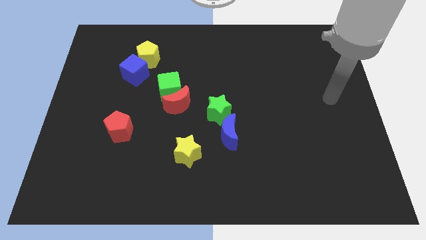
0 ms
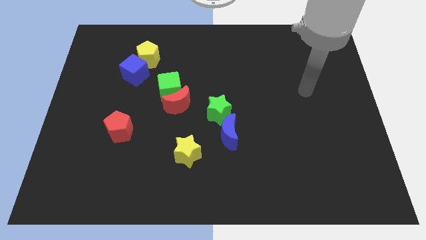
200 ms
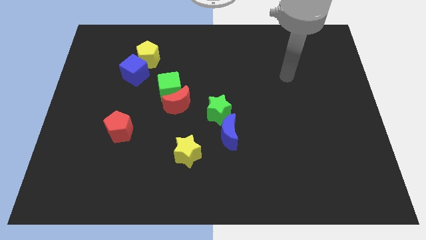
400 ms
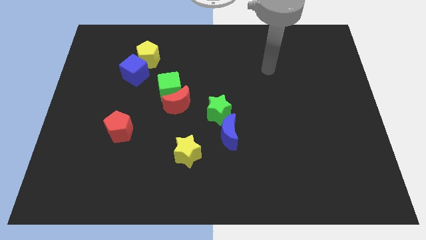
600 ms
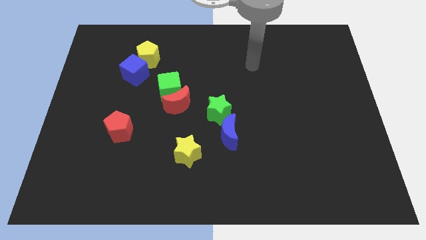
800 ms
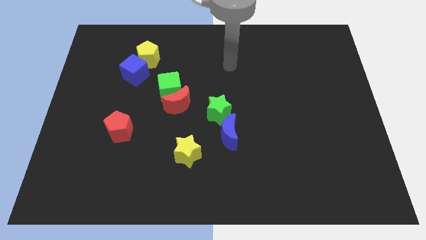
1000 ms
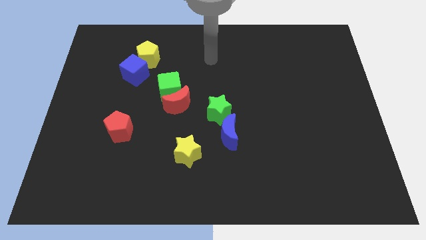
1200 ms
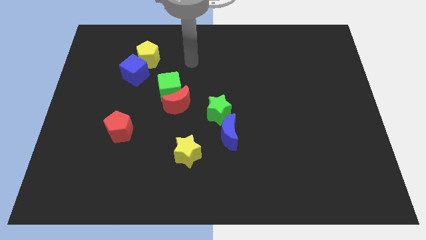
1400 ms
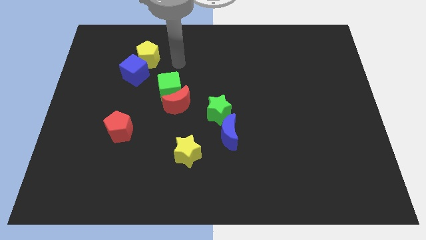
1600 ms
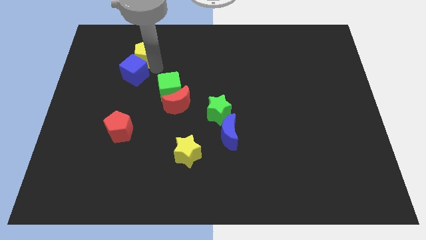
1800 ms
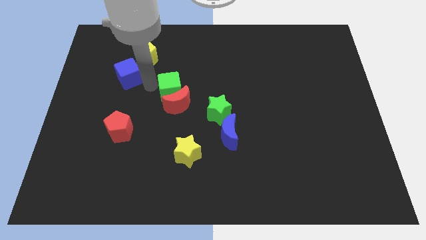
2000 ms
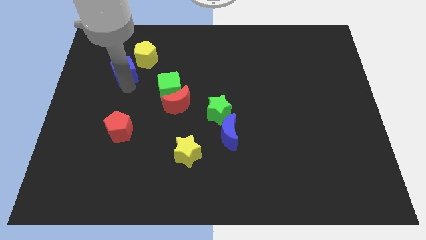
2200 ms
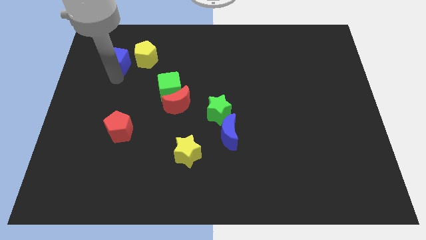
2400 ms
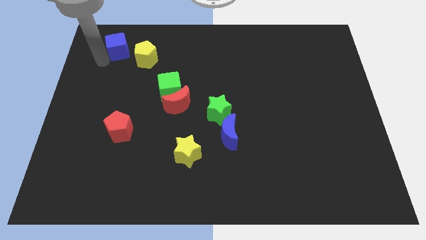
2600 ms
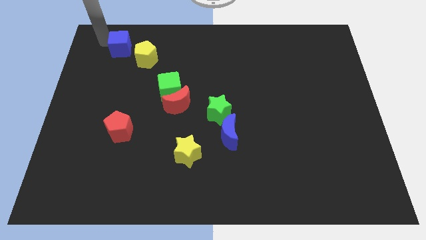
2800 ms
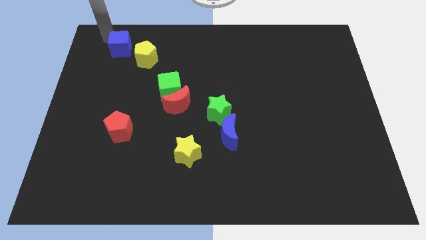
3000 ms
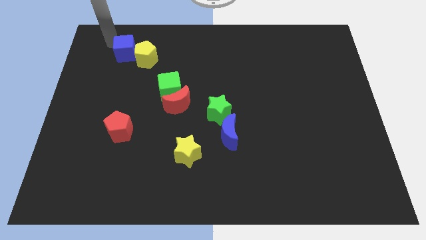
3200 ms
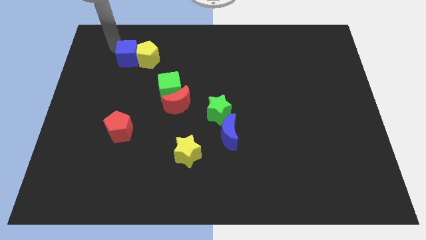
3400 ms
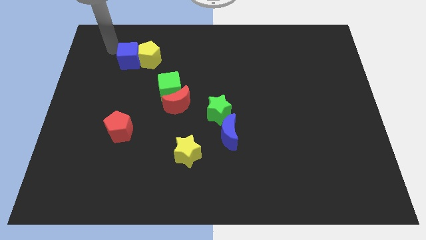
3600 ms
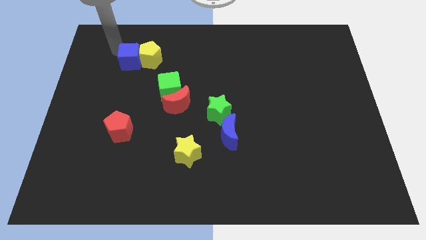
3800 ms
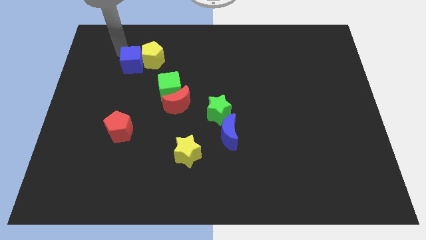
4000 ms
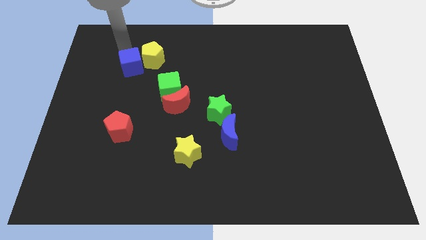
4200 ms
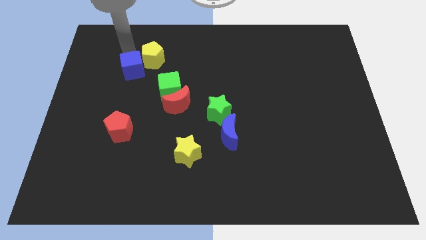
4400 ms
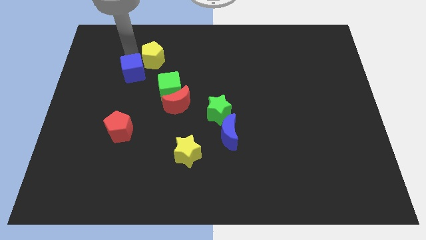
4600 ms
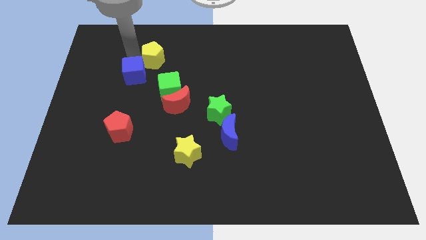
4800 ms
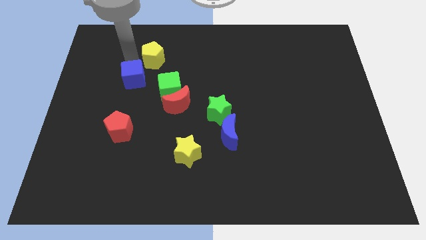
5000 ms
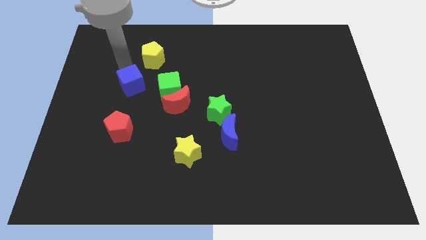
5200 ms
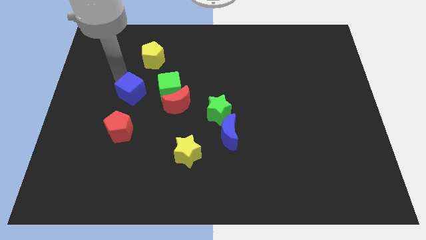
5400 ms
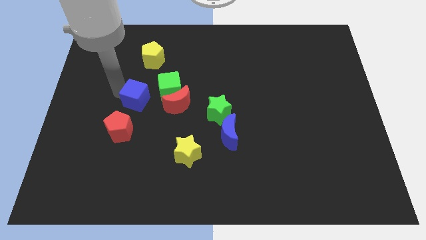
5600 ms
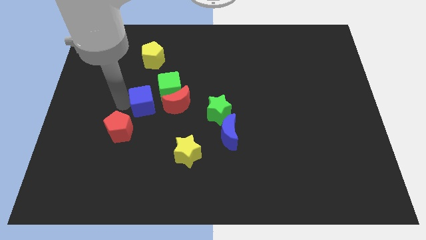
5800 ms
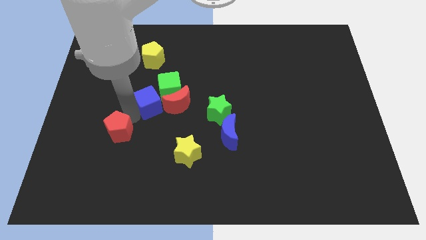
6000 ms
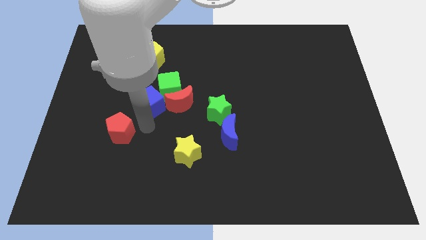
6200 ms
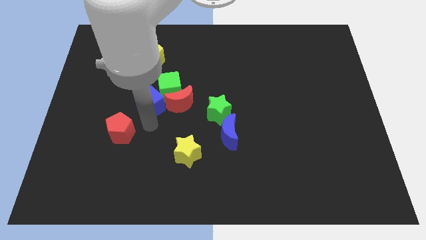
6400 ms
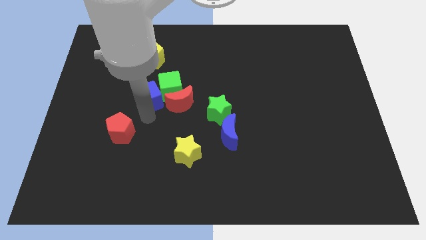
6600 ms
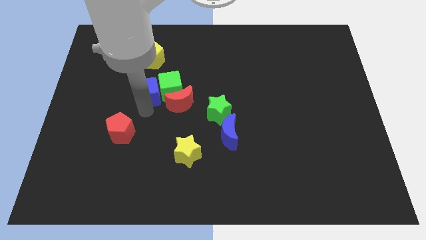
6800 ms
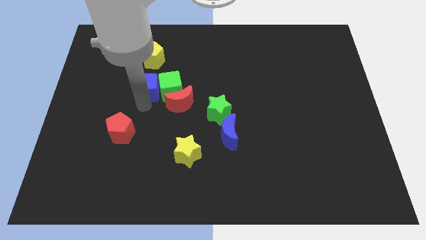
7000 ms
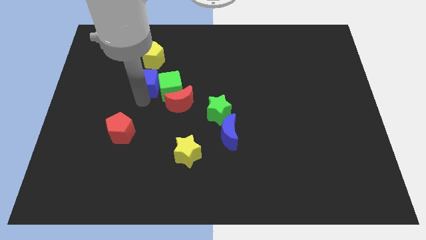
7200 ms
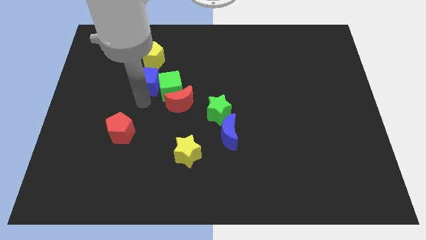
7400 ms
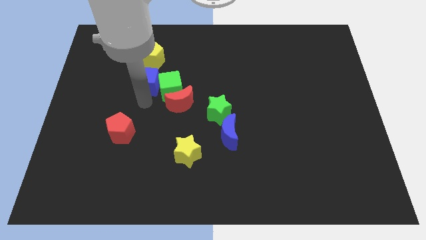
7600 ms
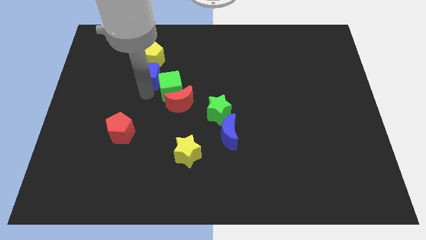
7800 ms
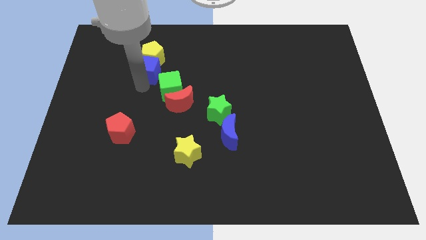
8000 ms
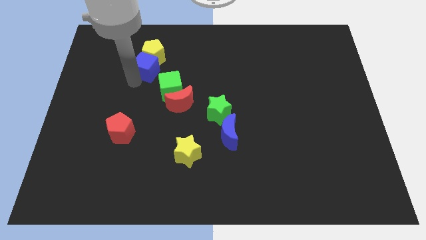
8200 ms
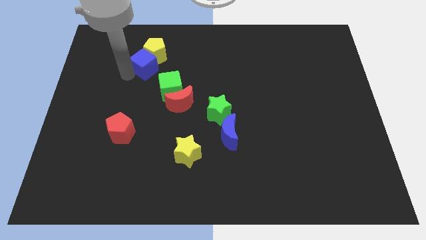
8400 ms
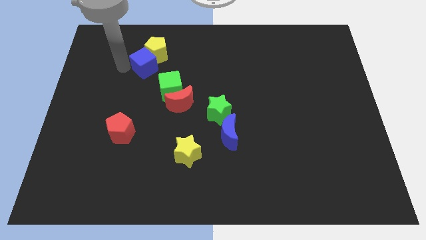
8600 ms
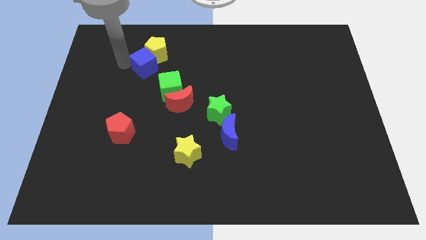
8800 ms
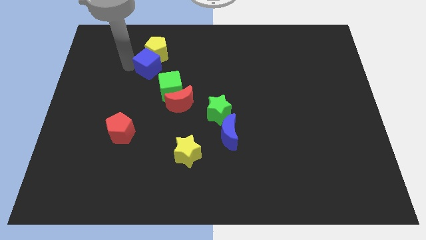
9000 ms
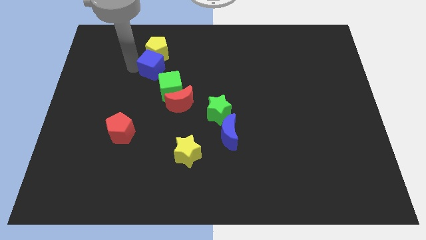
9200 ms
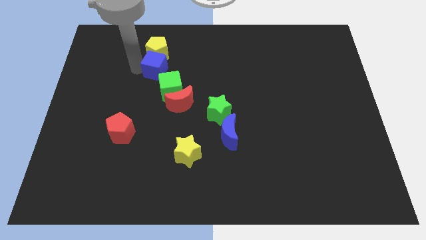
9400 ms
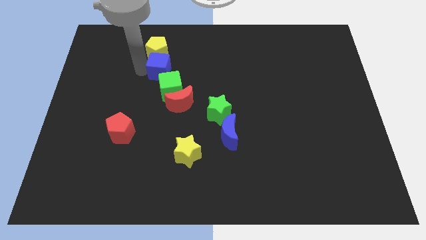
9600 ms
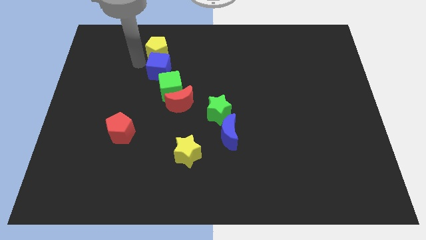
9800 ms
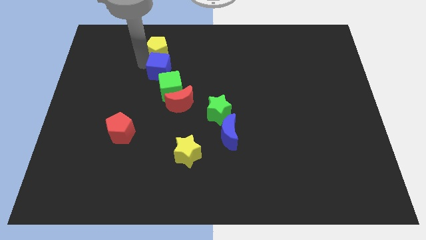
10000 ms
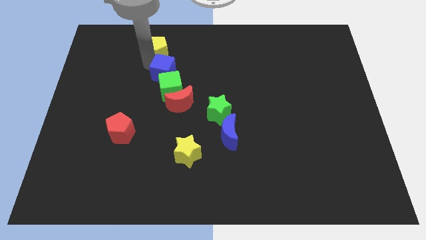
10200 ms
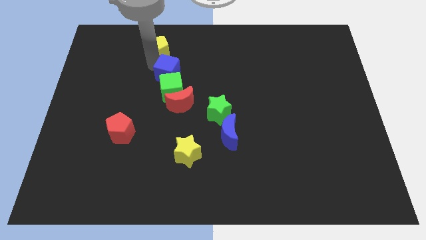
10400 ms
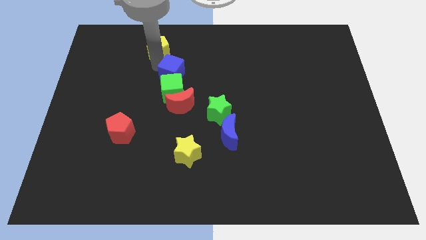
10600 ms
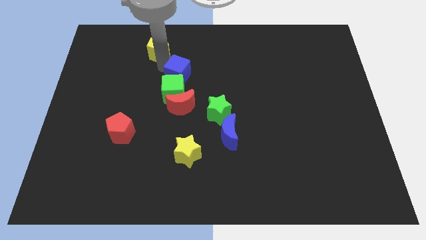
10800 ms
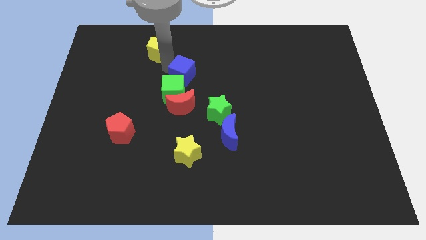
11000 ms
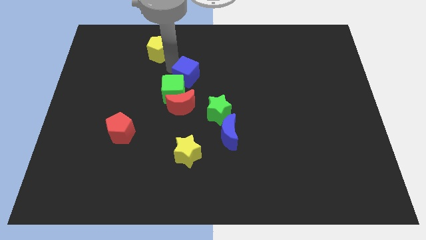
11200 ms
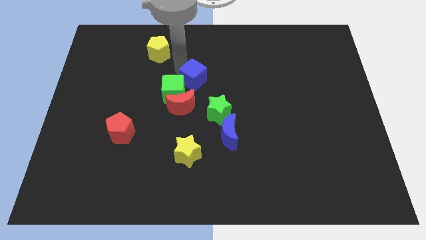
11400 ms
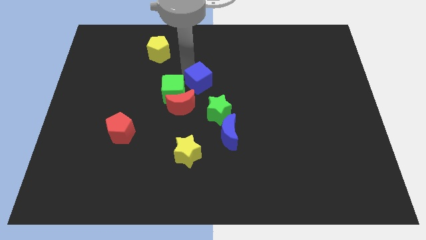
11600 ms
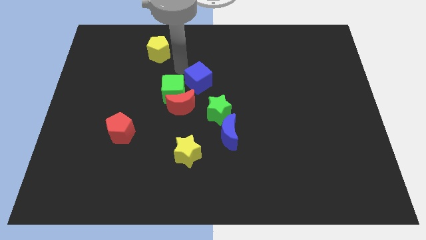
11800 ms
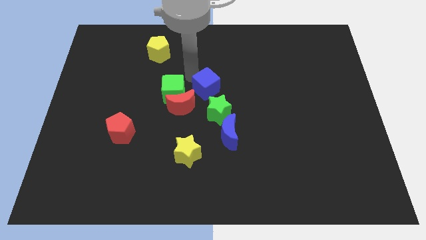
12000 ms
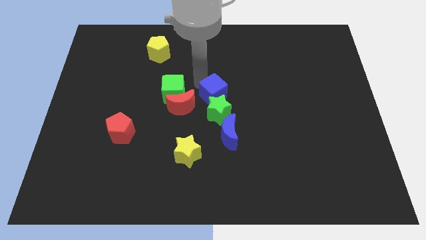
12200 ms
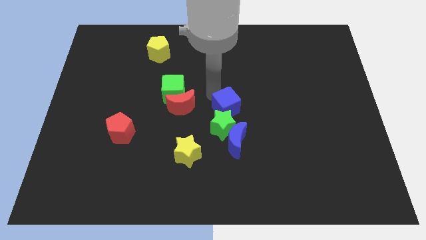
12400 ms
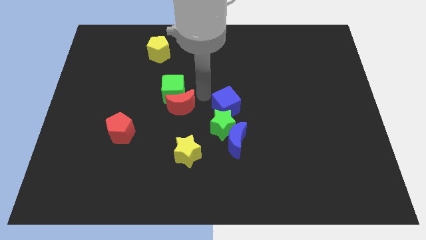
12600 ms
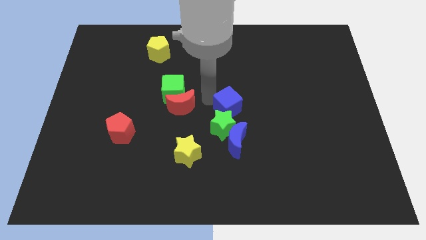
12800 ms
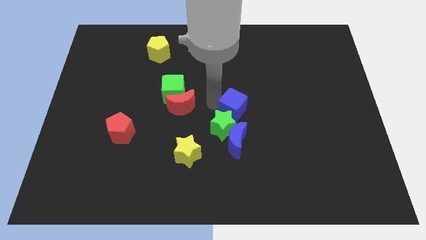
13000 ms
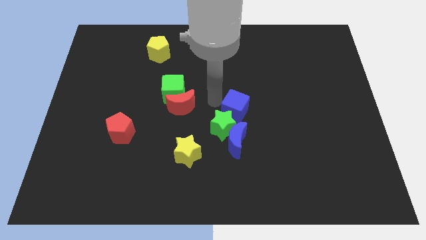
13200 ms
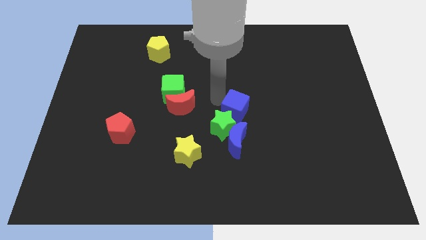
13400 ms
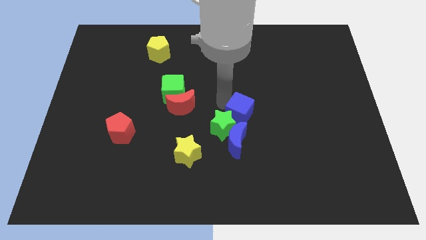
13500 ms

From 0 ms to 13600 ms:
put the blue cube to the top right of the blue moon
